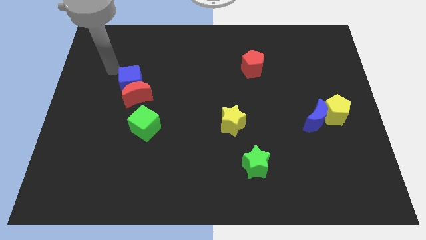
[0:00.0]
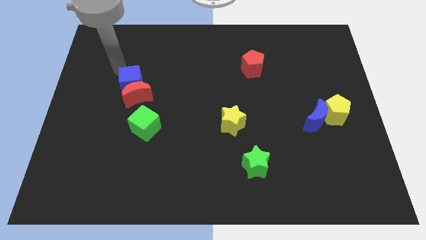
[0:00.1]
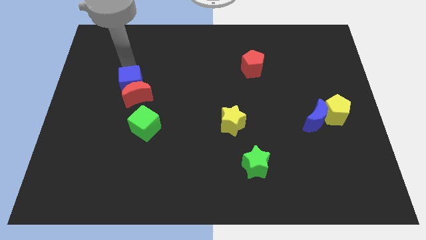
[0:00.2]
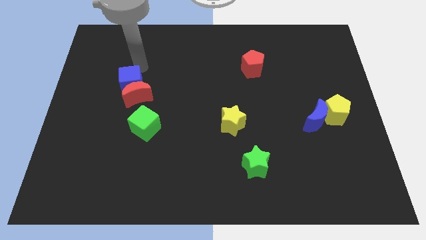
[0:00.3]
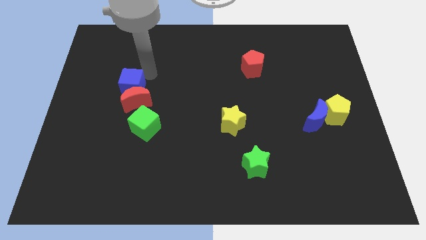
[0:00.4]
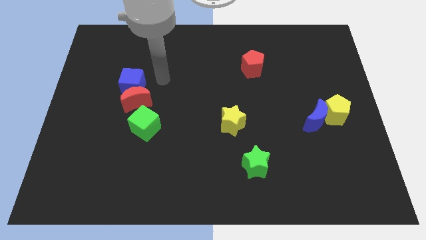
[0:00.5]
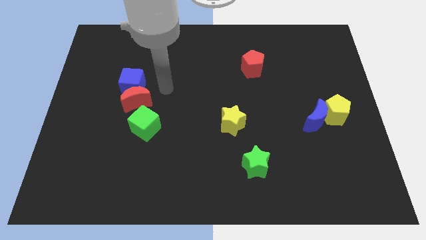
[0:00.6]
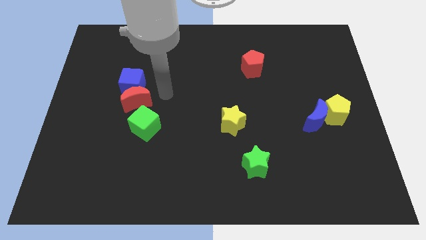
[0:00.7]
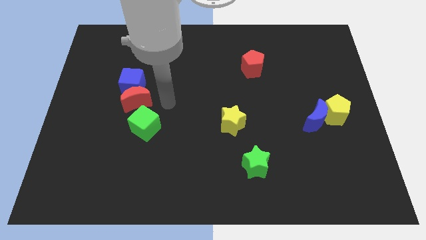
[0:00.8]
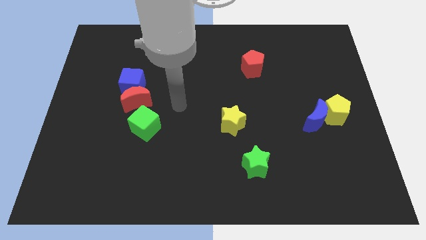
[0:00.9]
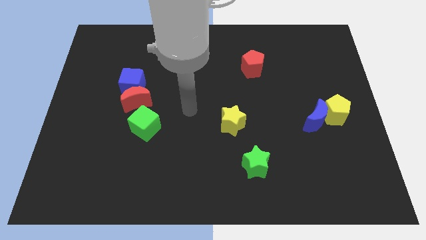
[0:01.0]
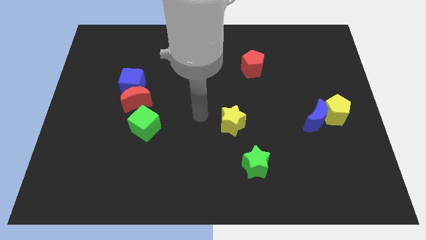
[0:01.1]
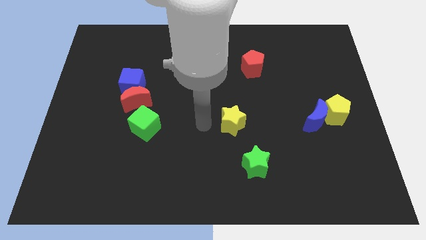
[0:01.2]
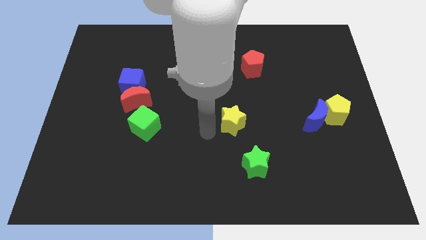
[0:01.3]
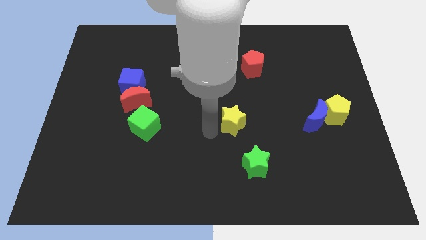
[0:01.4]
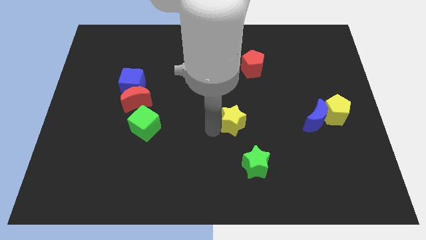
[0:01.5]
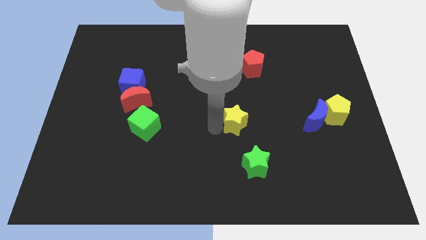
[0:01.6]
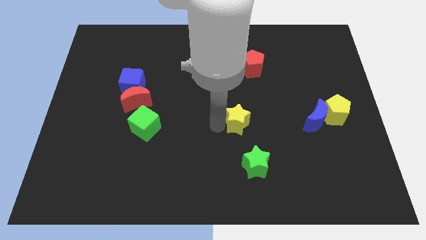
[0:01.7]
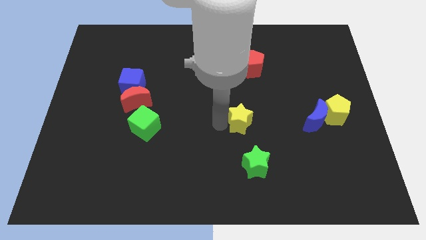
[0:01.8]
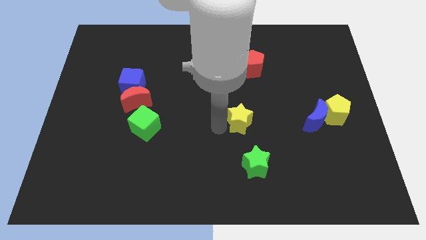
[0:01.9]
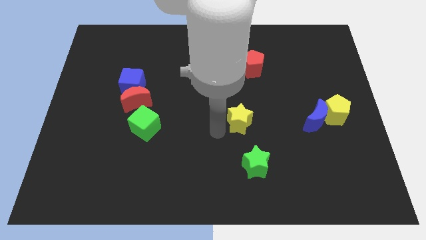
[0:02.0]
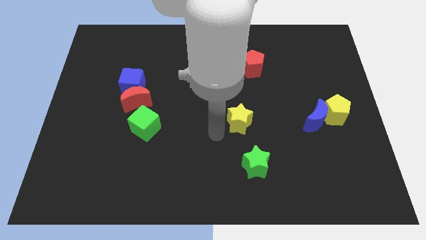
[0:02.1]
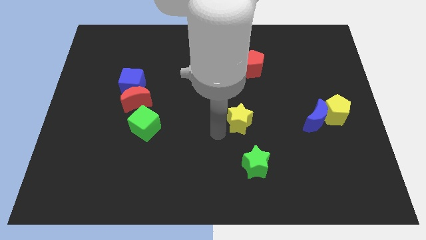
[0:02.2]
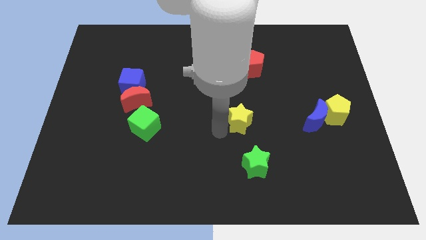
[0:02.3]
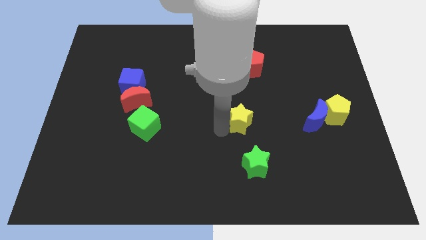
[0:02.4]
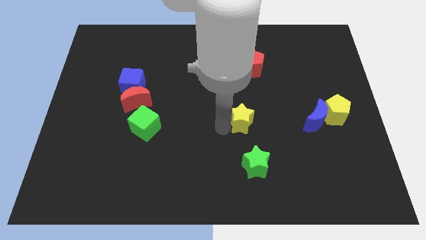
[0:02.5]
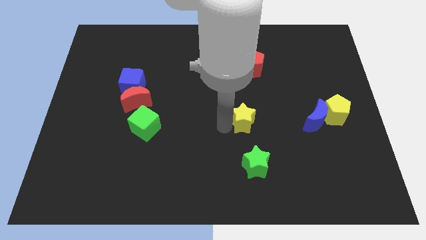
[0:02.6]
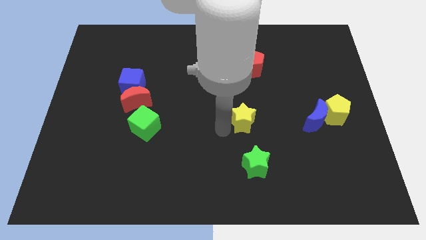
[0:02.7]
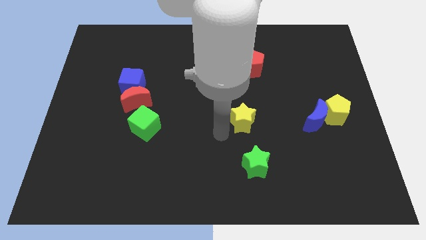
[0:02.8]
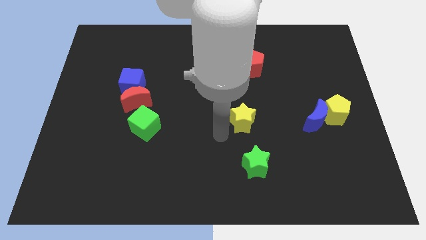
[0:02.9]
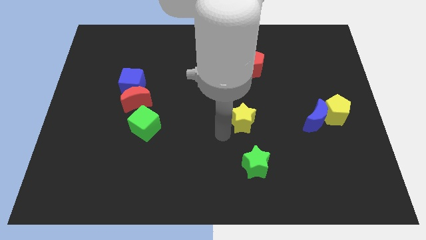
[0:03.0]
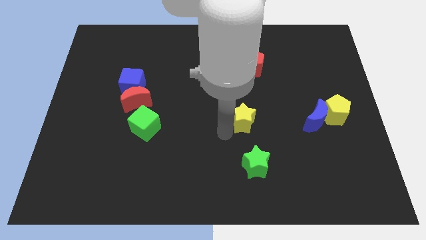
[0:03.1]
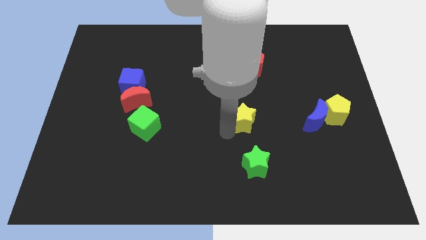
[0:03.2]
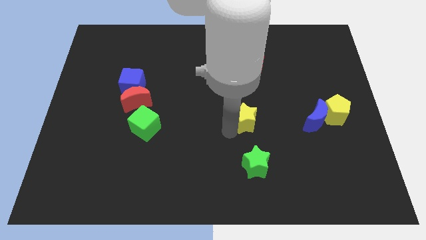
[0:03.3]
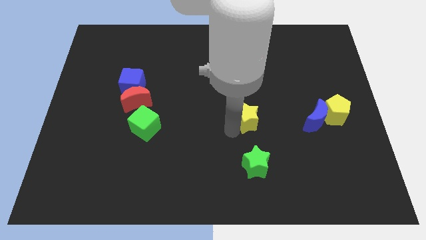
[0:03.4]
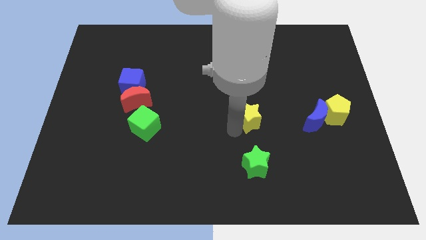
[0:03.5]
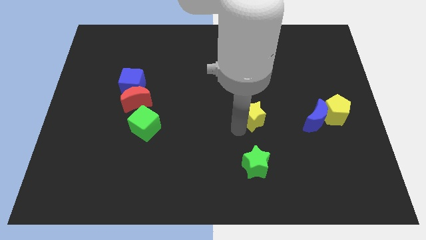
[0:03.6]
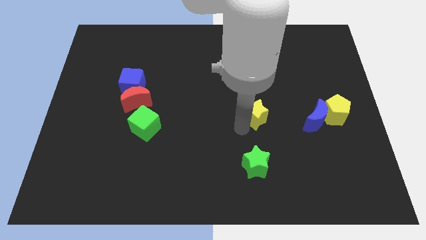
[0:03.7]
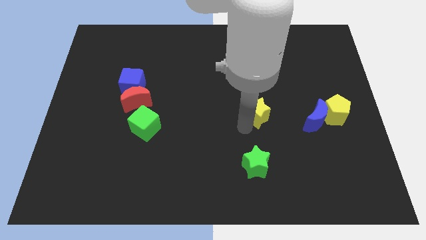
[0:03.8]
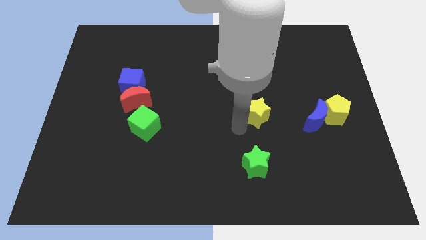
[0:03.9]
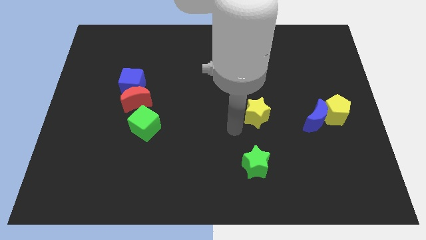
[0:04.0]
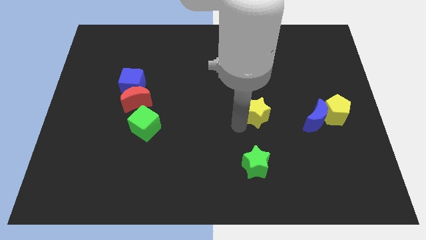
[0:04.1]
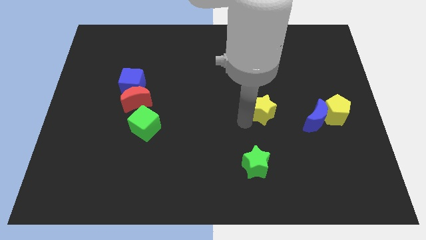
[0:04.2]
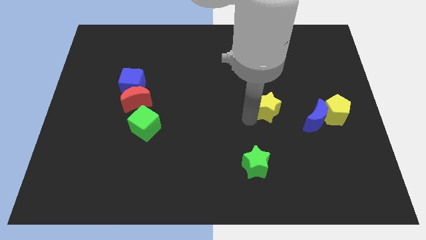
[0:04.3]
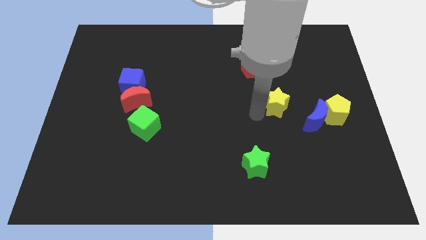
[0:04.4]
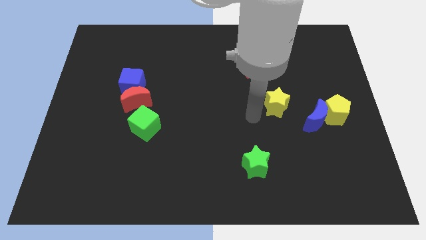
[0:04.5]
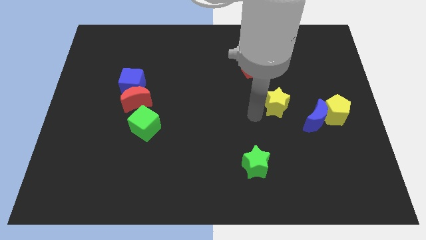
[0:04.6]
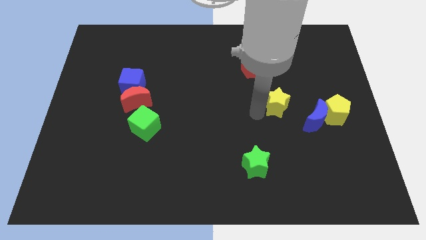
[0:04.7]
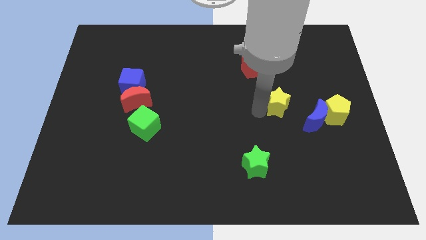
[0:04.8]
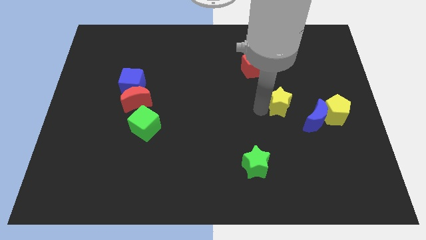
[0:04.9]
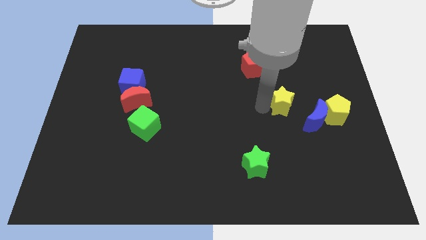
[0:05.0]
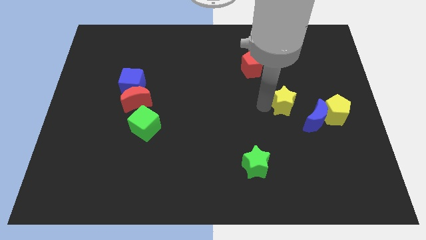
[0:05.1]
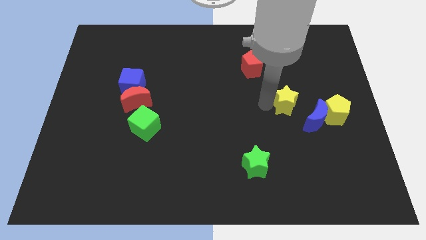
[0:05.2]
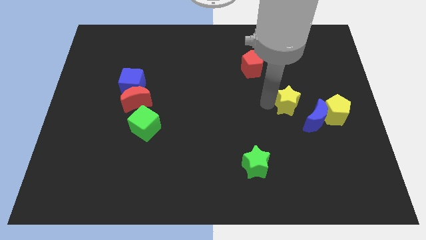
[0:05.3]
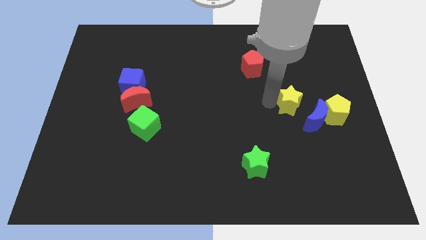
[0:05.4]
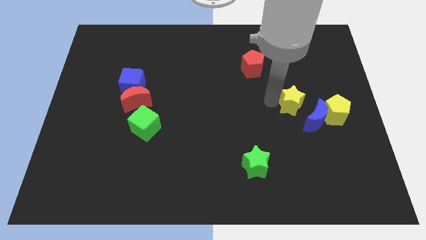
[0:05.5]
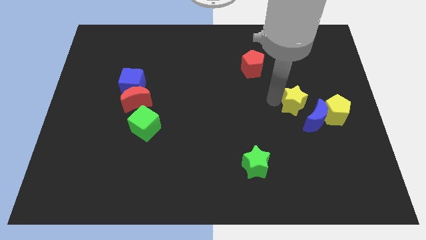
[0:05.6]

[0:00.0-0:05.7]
move the yellow star above the blue moon

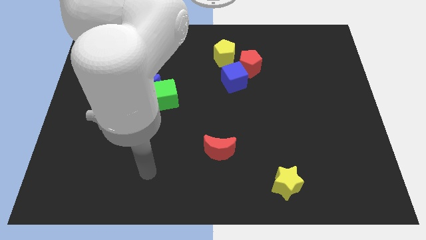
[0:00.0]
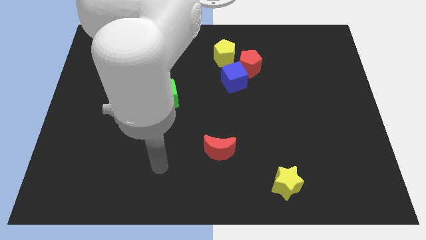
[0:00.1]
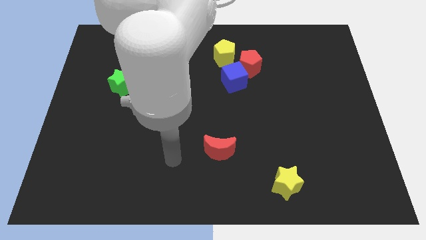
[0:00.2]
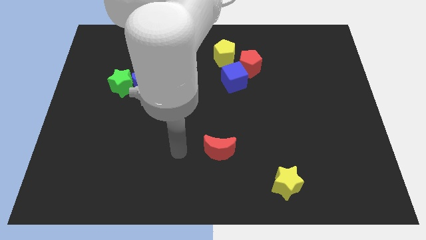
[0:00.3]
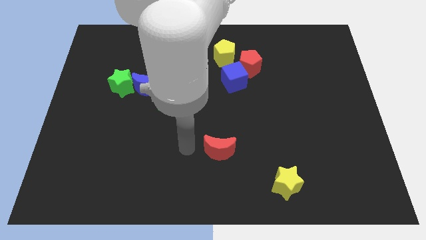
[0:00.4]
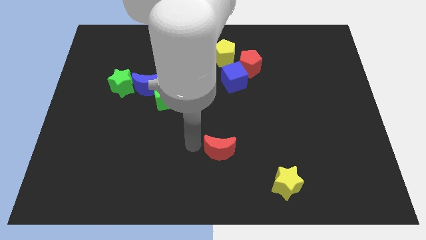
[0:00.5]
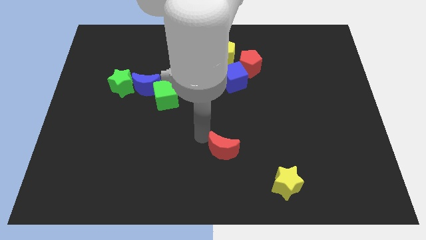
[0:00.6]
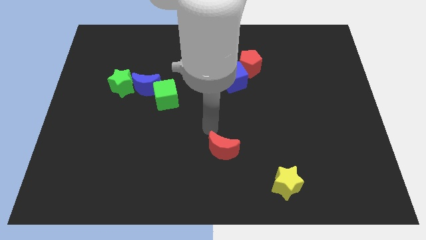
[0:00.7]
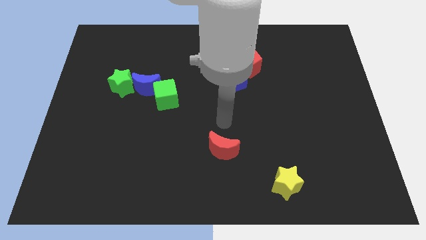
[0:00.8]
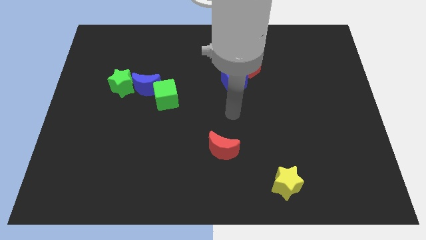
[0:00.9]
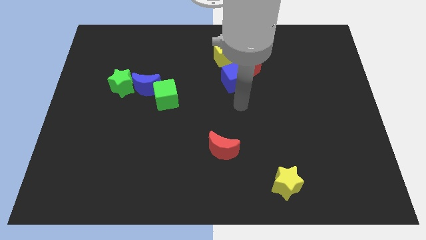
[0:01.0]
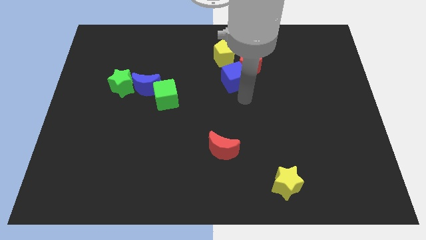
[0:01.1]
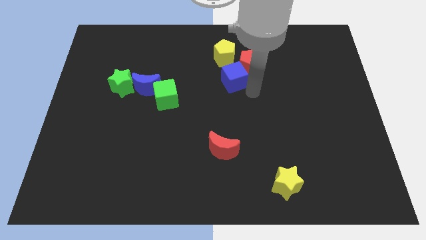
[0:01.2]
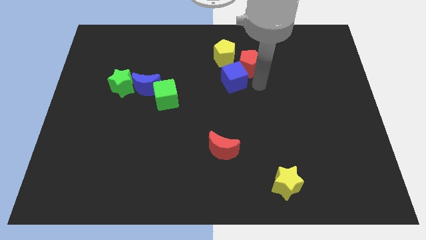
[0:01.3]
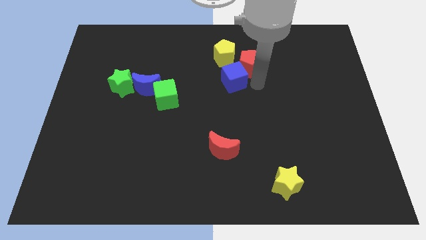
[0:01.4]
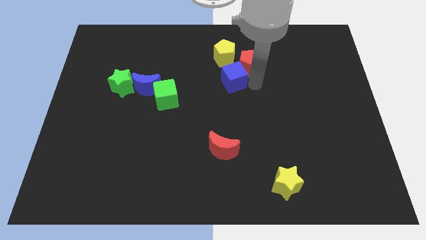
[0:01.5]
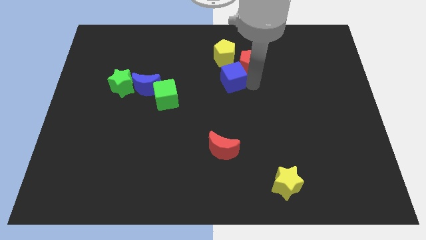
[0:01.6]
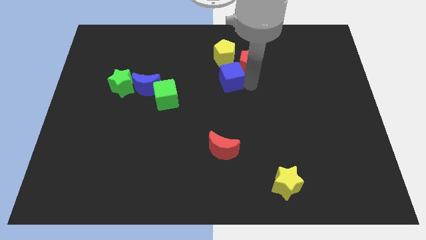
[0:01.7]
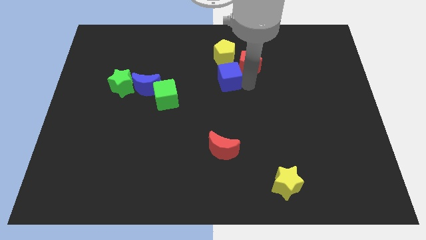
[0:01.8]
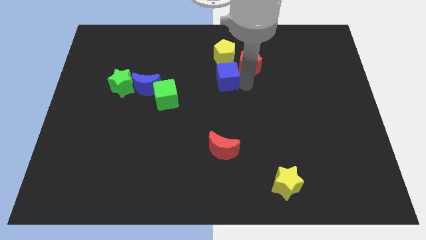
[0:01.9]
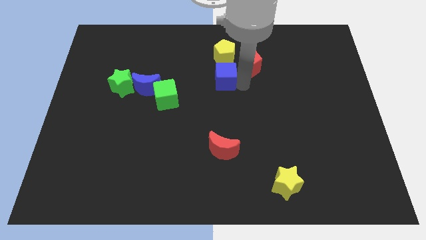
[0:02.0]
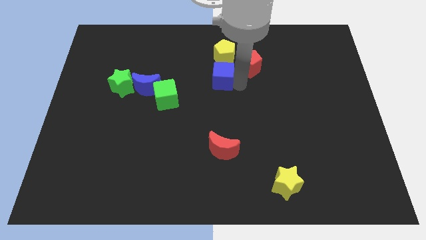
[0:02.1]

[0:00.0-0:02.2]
put the blue cube diagonally down and to the left of the yellow pentagon

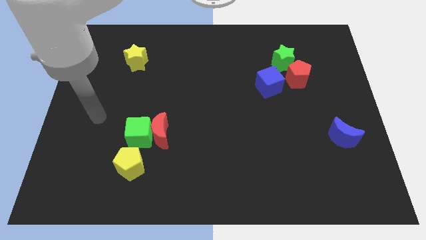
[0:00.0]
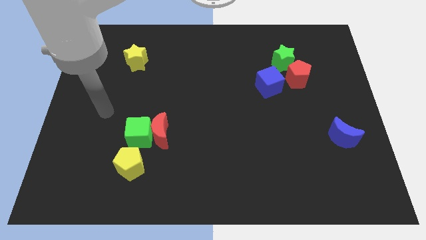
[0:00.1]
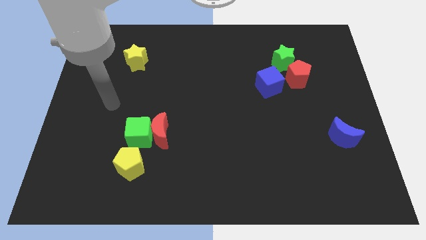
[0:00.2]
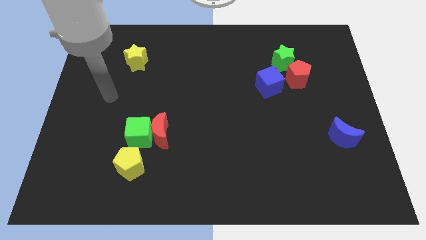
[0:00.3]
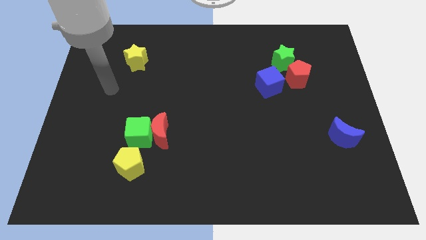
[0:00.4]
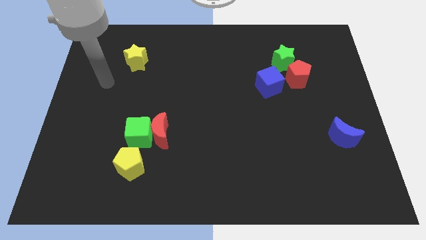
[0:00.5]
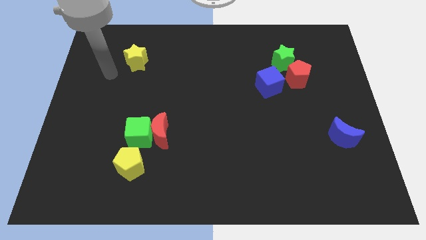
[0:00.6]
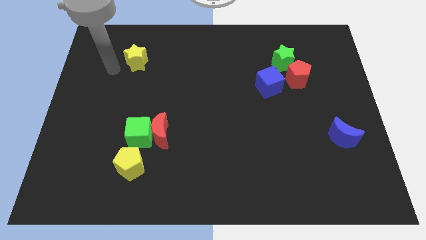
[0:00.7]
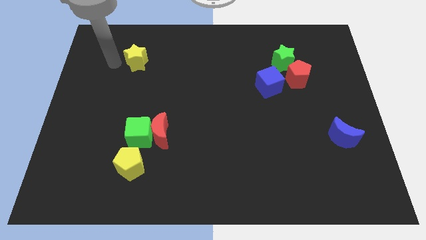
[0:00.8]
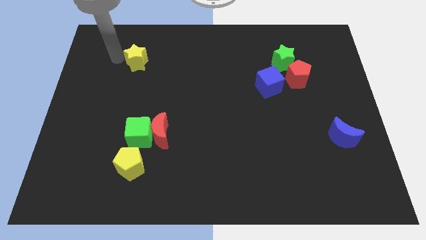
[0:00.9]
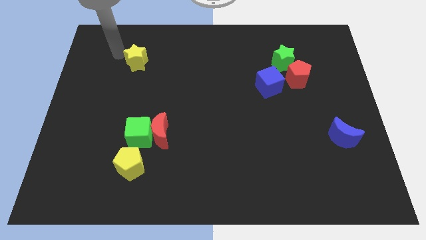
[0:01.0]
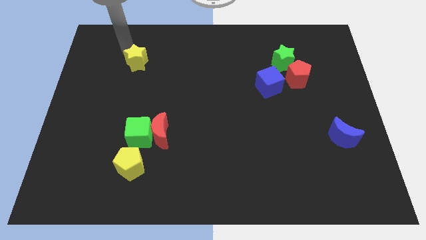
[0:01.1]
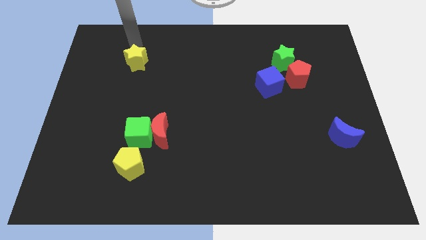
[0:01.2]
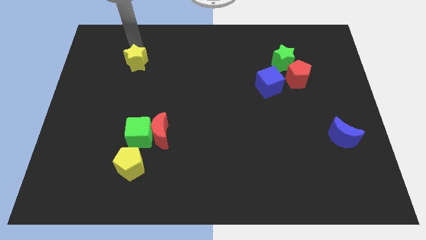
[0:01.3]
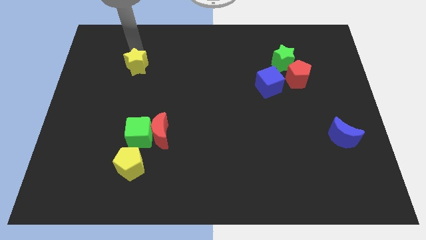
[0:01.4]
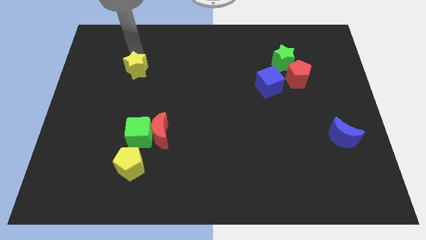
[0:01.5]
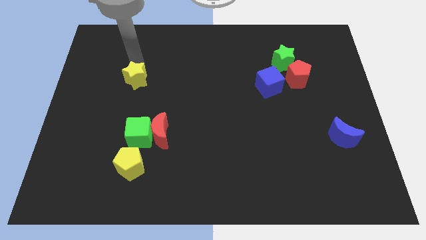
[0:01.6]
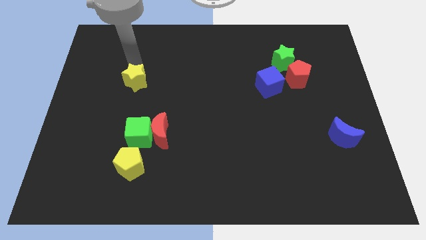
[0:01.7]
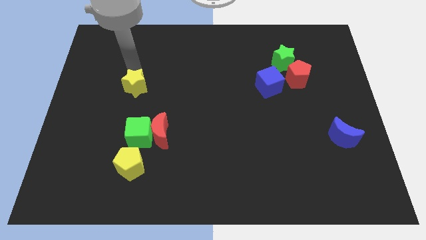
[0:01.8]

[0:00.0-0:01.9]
slide the yellow star to the top of the green cube
